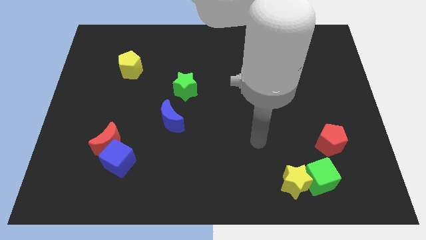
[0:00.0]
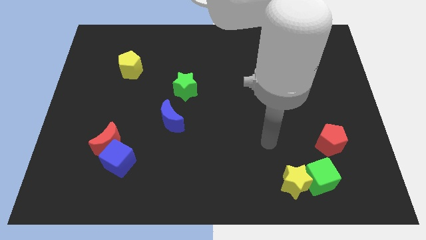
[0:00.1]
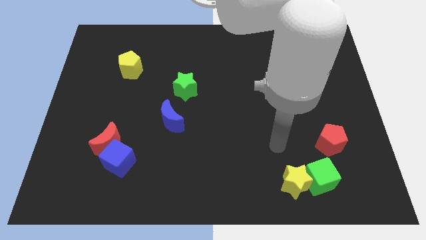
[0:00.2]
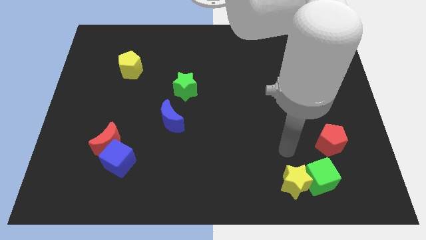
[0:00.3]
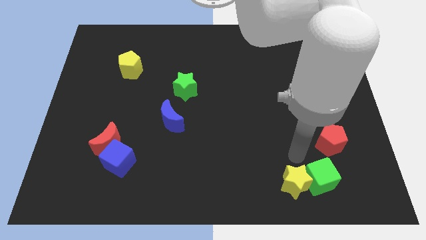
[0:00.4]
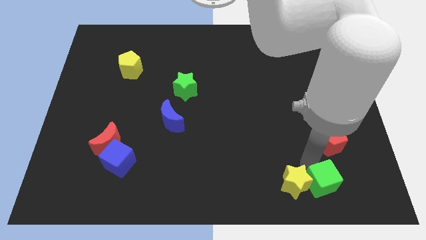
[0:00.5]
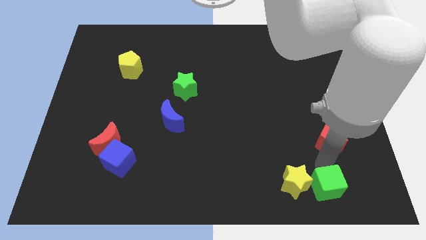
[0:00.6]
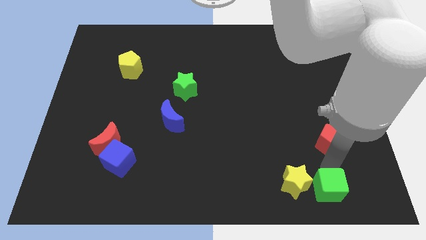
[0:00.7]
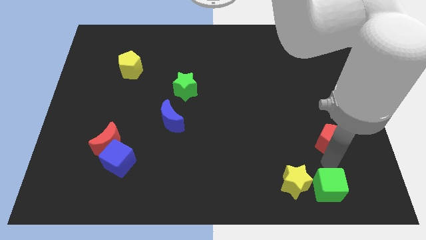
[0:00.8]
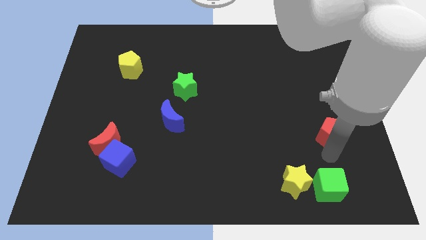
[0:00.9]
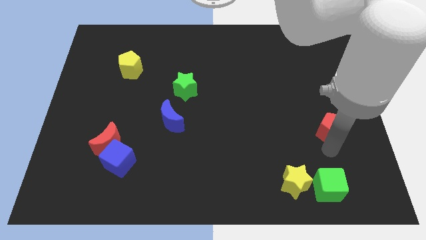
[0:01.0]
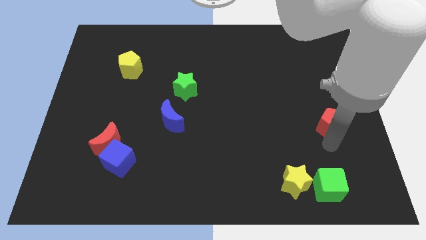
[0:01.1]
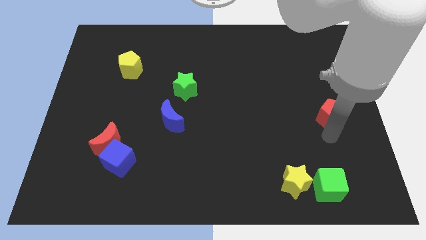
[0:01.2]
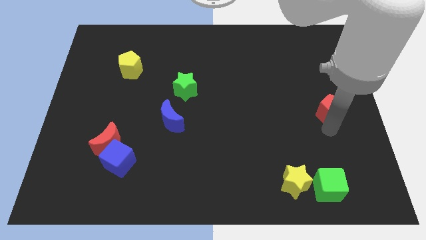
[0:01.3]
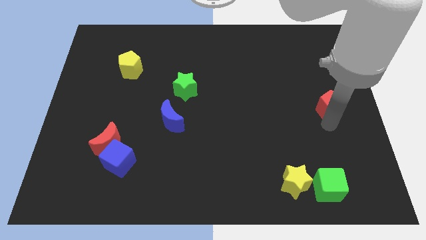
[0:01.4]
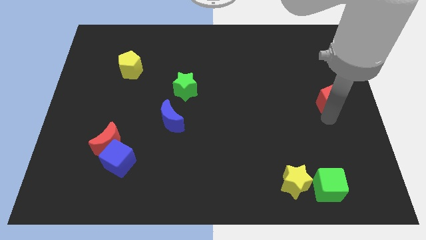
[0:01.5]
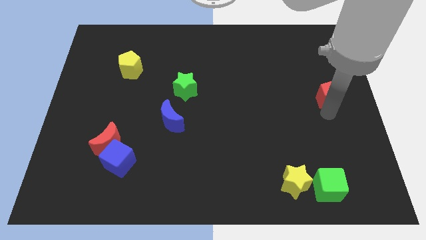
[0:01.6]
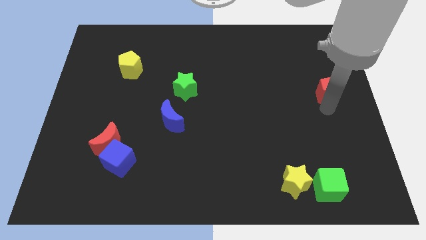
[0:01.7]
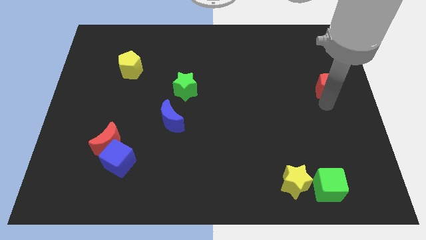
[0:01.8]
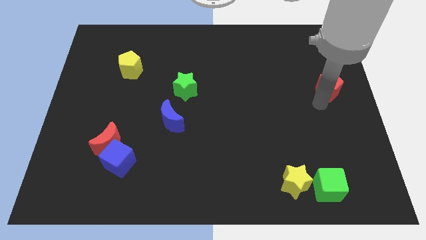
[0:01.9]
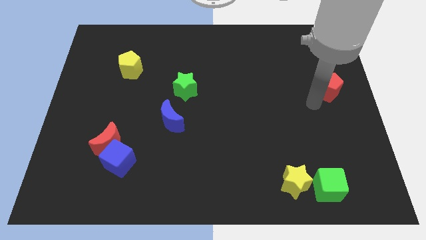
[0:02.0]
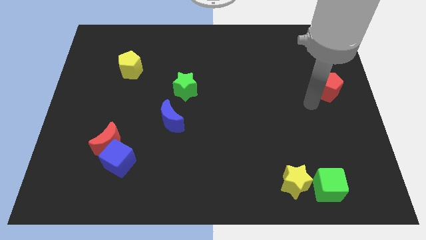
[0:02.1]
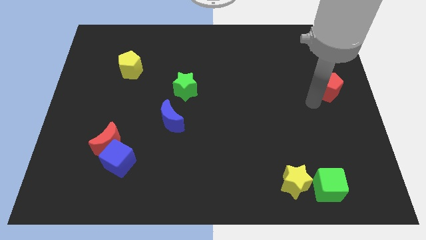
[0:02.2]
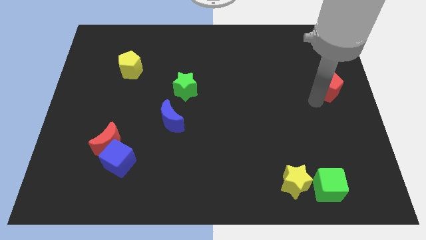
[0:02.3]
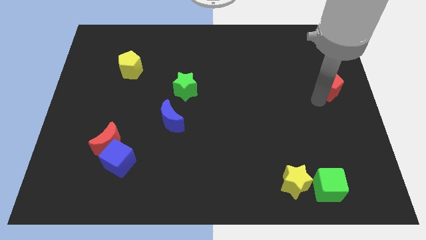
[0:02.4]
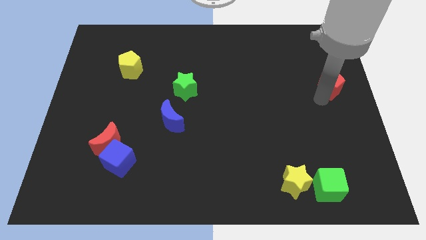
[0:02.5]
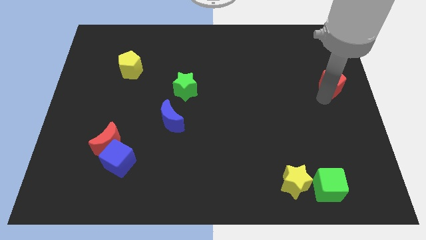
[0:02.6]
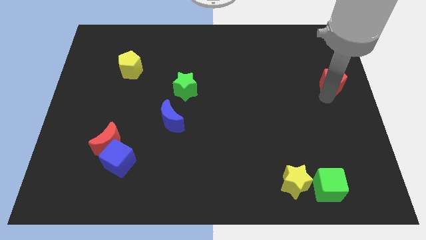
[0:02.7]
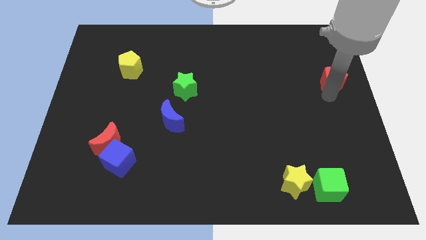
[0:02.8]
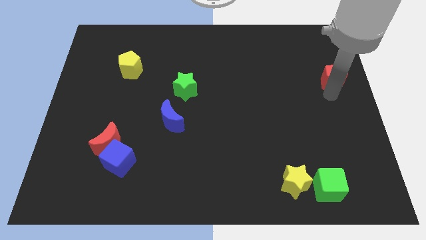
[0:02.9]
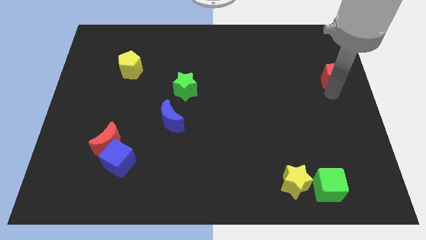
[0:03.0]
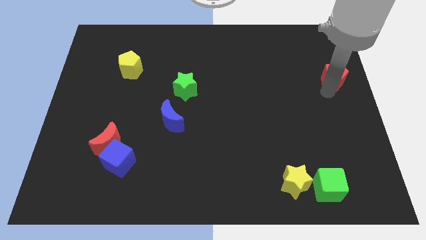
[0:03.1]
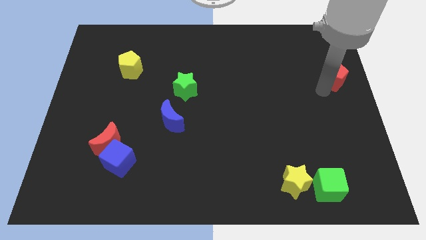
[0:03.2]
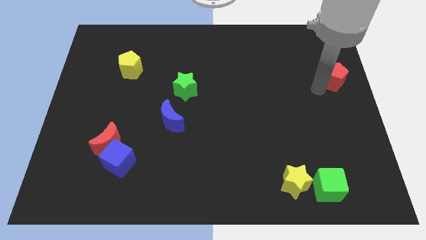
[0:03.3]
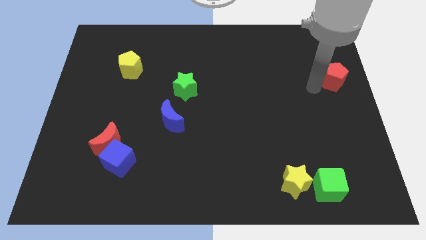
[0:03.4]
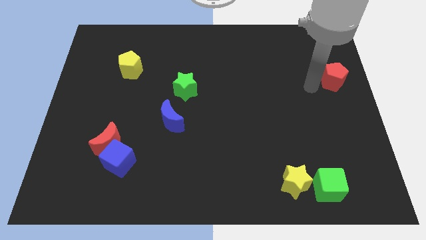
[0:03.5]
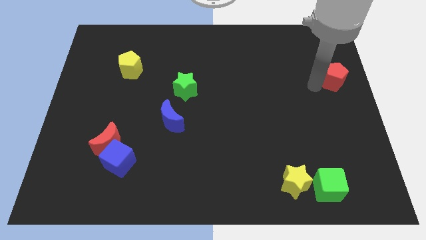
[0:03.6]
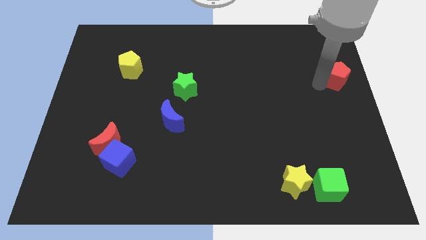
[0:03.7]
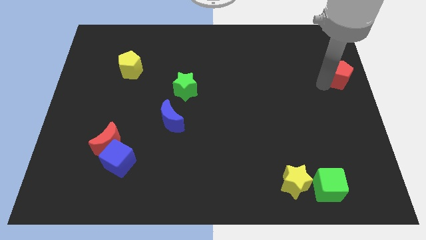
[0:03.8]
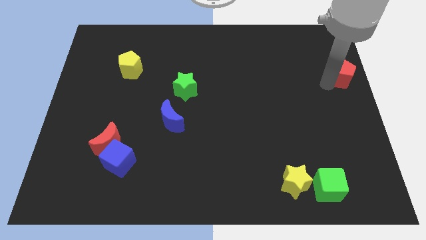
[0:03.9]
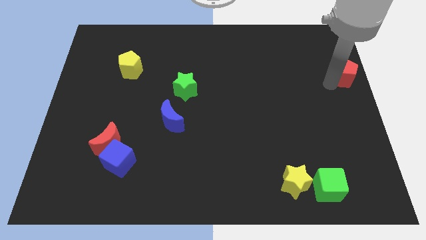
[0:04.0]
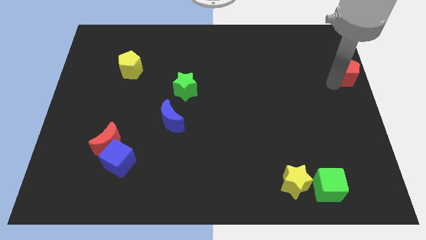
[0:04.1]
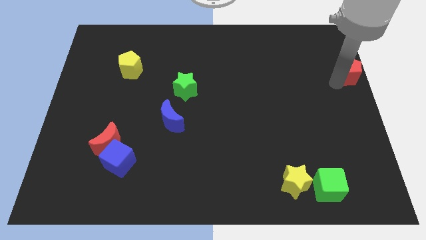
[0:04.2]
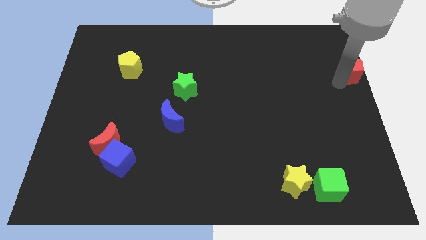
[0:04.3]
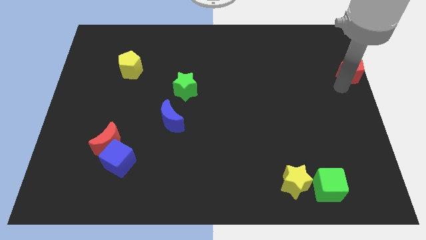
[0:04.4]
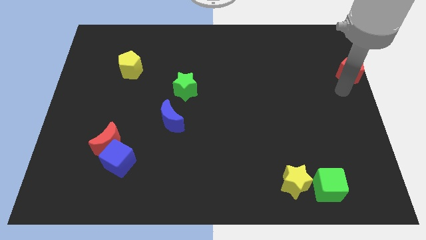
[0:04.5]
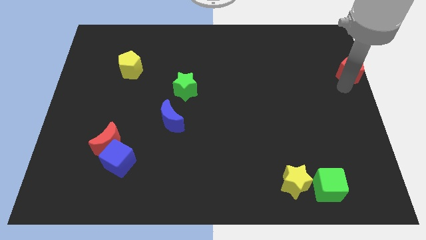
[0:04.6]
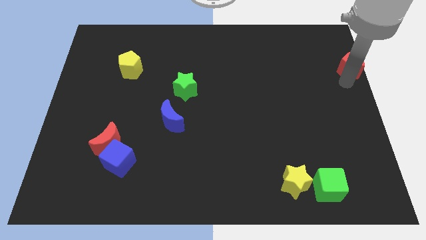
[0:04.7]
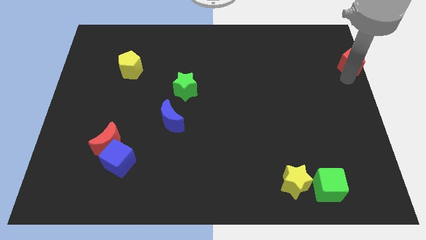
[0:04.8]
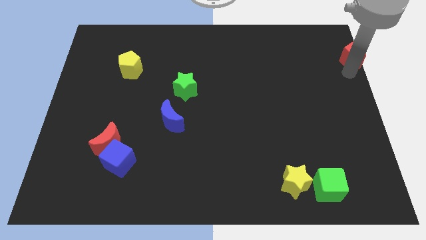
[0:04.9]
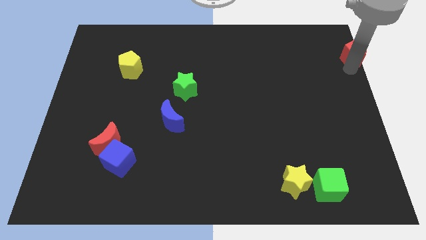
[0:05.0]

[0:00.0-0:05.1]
push the red pentagon to the top right

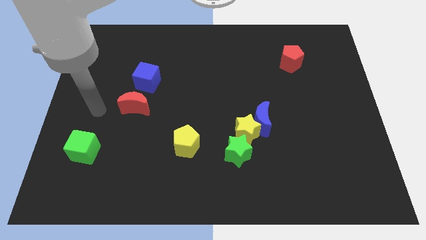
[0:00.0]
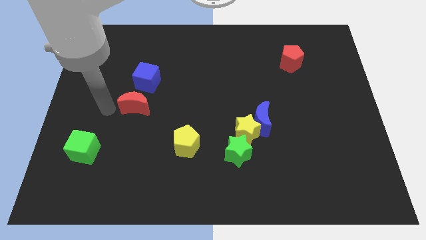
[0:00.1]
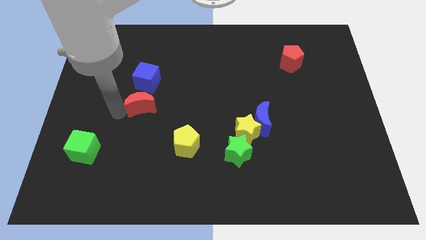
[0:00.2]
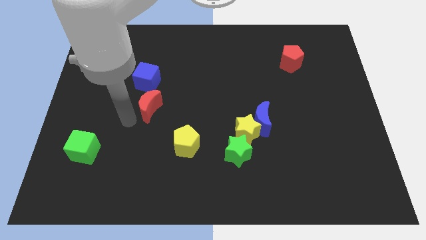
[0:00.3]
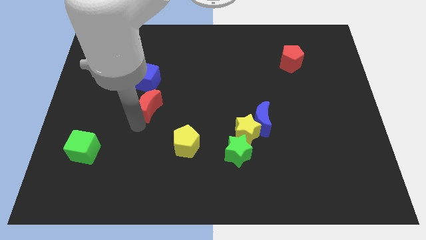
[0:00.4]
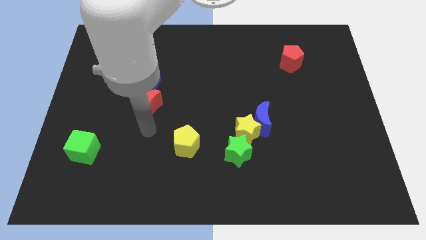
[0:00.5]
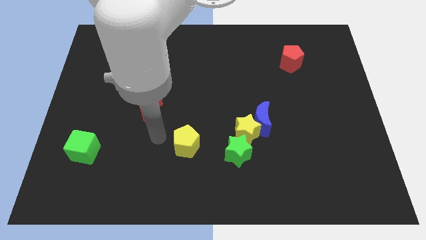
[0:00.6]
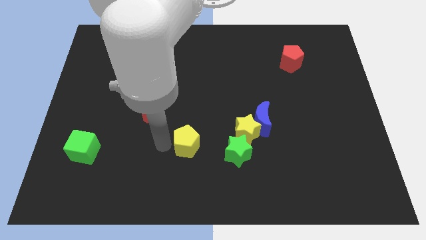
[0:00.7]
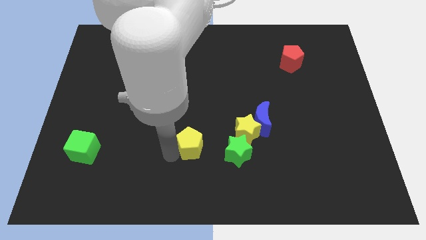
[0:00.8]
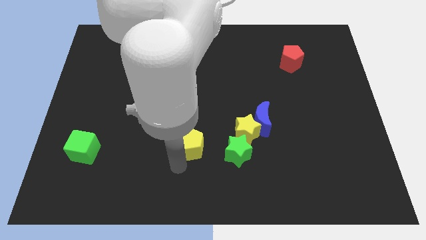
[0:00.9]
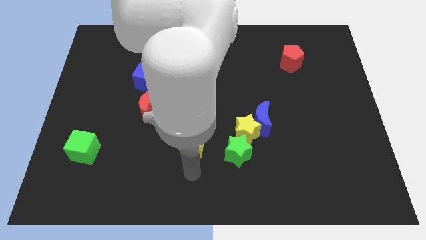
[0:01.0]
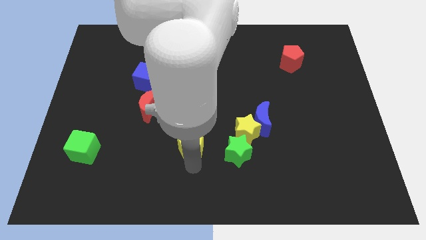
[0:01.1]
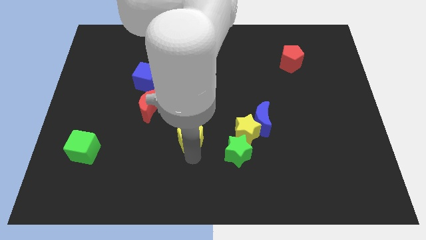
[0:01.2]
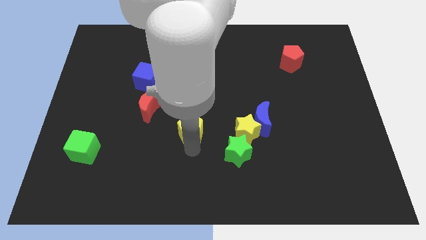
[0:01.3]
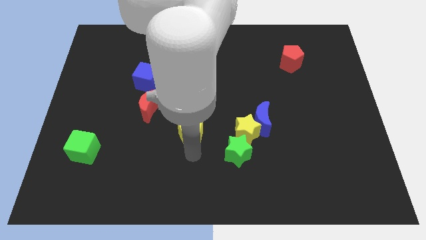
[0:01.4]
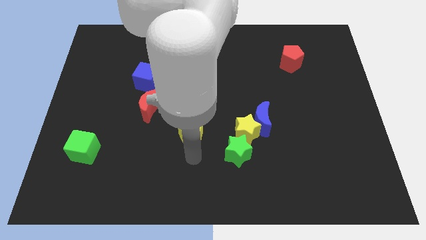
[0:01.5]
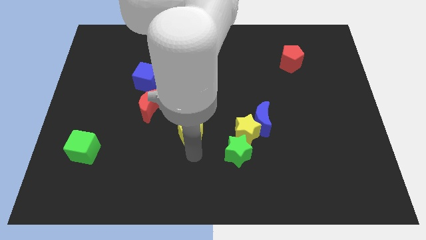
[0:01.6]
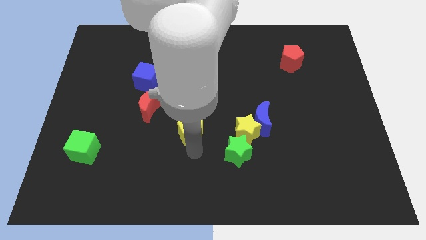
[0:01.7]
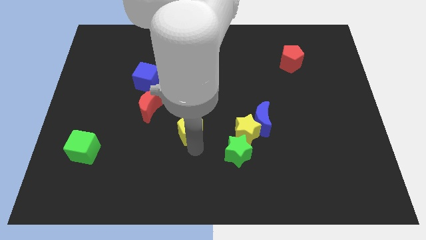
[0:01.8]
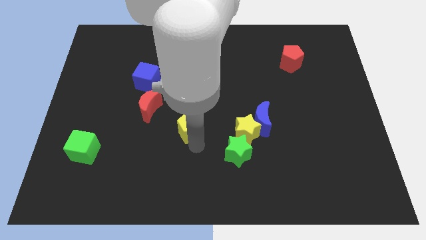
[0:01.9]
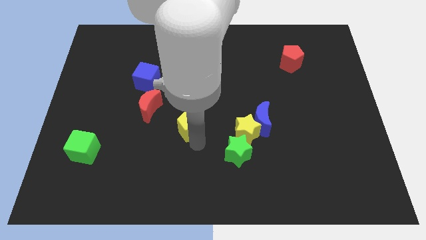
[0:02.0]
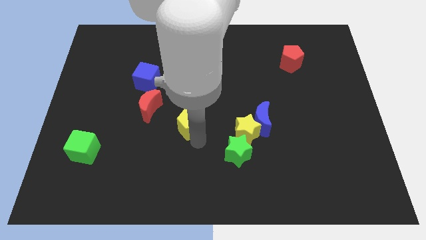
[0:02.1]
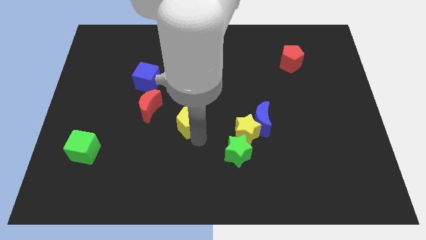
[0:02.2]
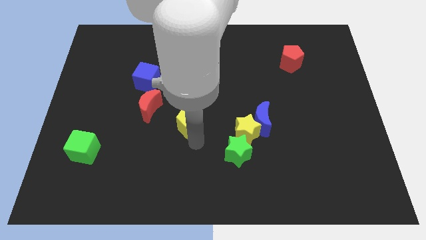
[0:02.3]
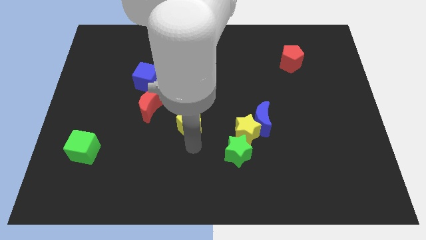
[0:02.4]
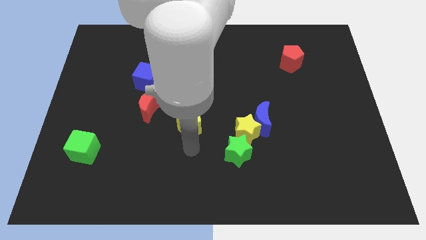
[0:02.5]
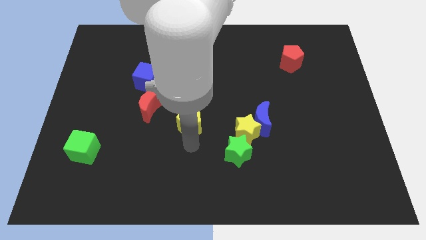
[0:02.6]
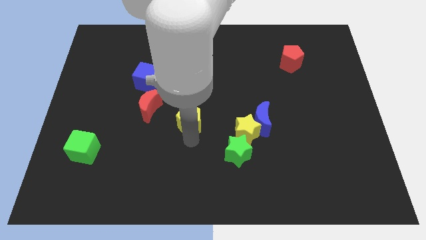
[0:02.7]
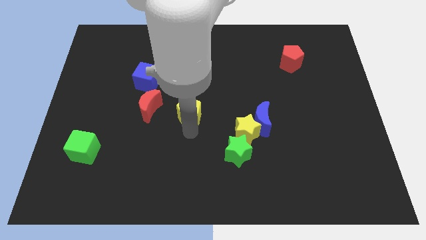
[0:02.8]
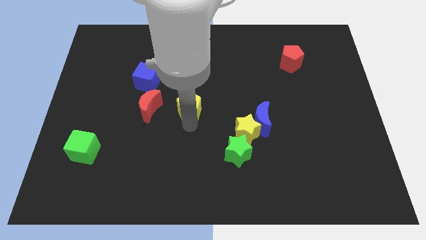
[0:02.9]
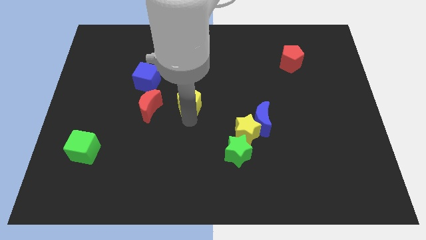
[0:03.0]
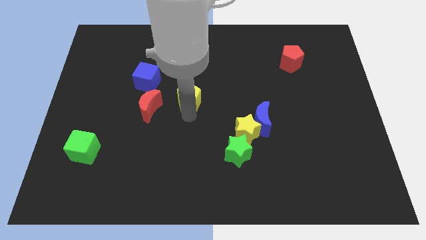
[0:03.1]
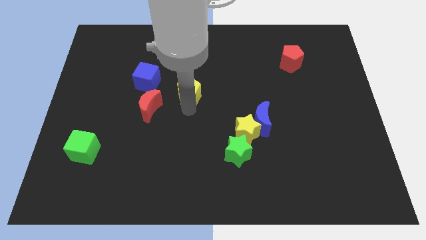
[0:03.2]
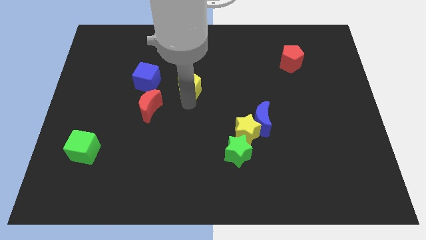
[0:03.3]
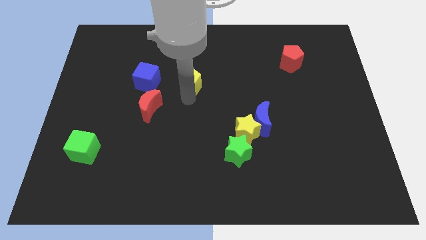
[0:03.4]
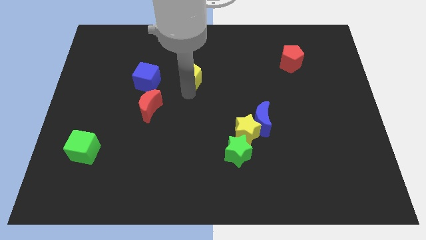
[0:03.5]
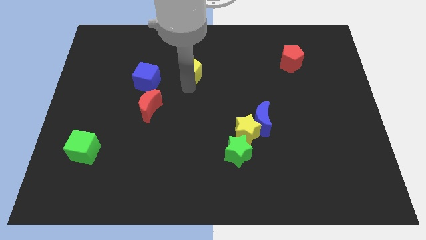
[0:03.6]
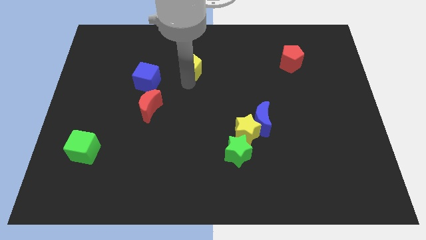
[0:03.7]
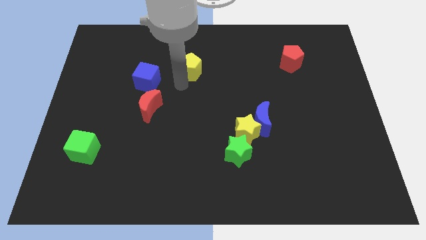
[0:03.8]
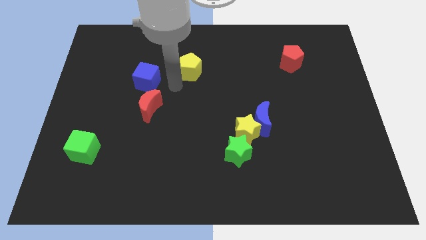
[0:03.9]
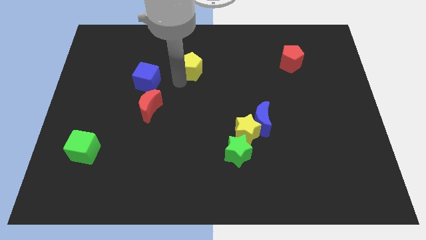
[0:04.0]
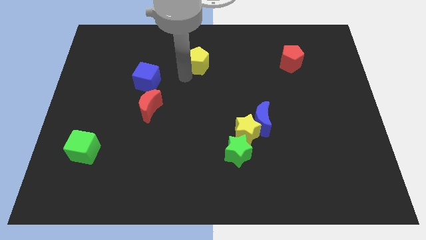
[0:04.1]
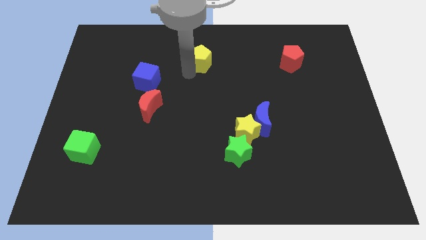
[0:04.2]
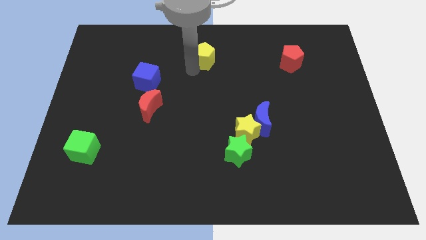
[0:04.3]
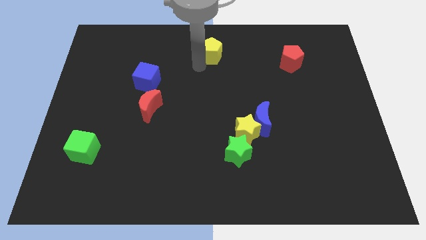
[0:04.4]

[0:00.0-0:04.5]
put the yellow pentagon to the towards your base
